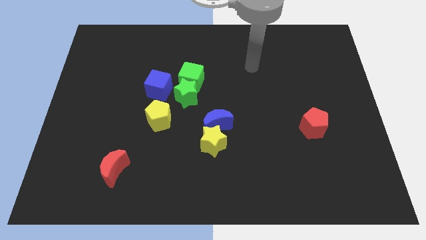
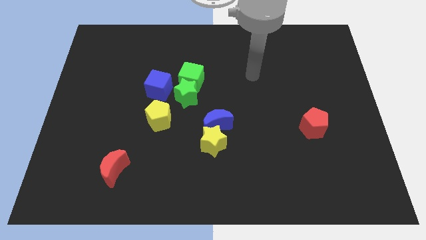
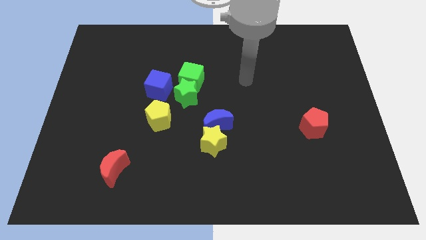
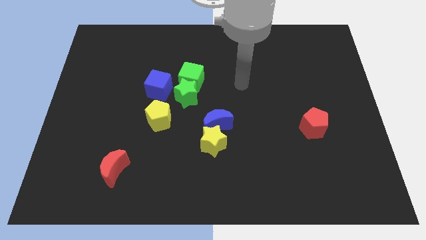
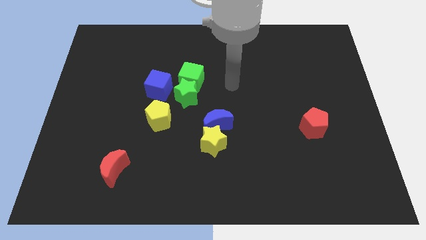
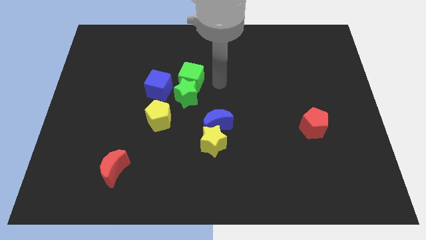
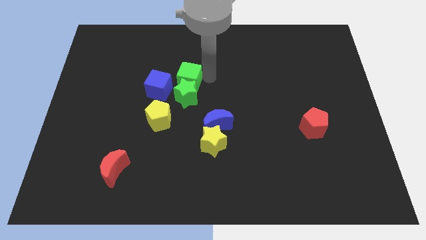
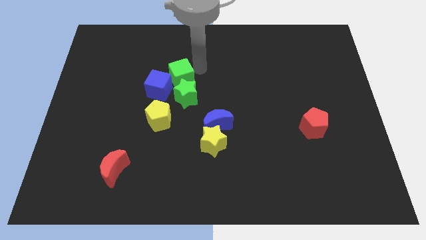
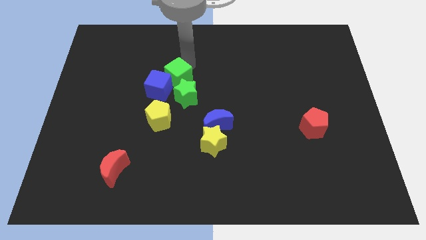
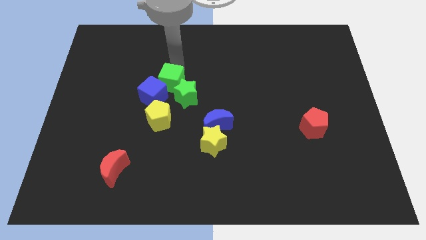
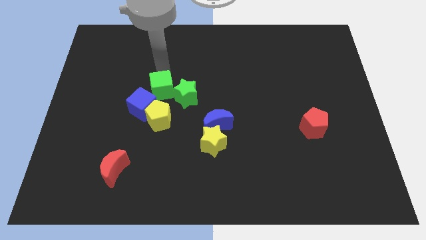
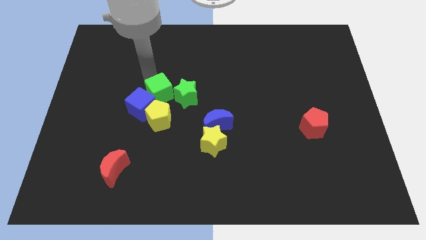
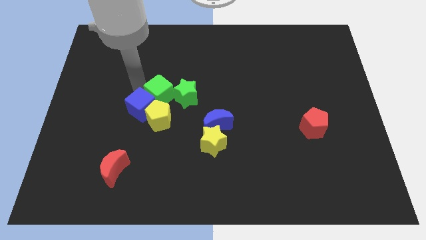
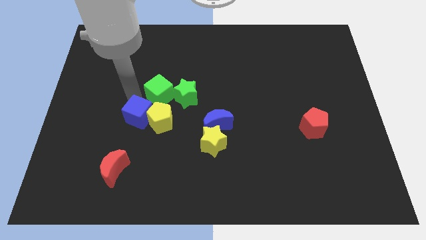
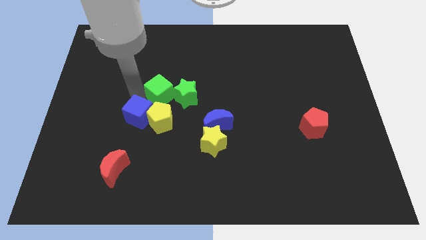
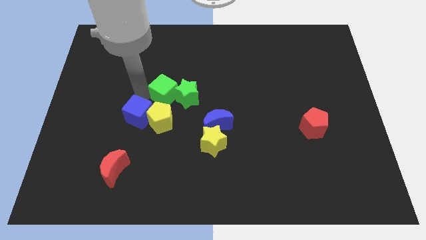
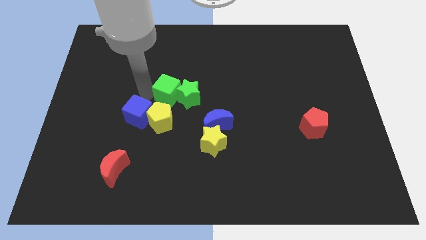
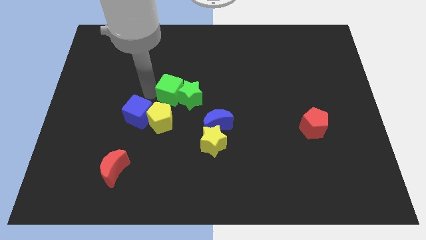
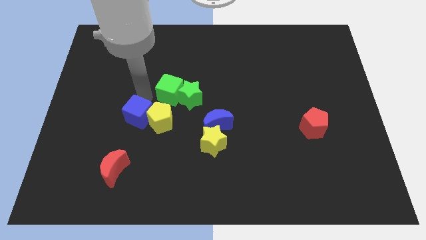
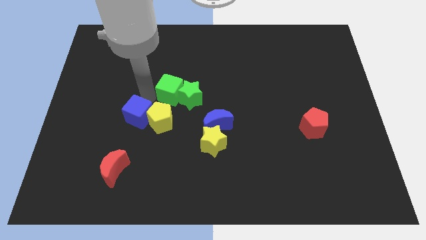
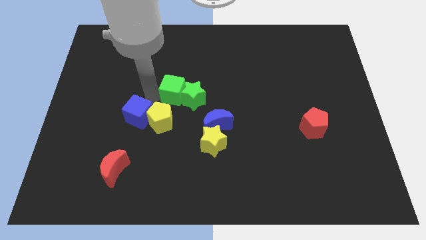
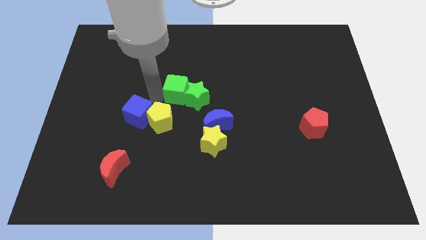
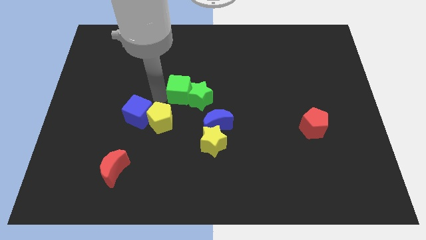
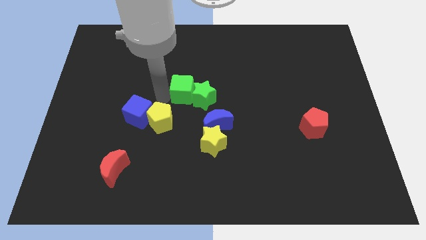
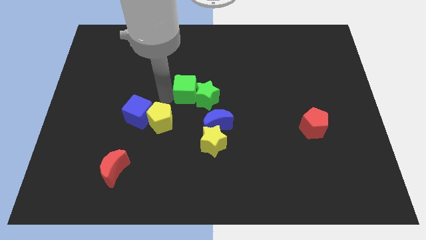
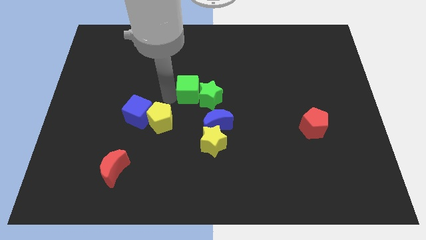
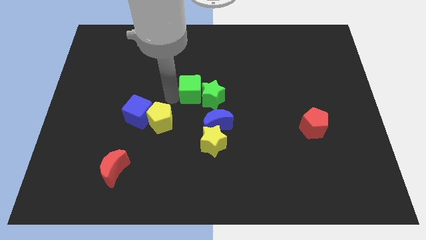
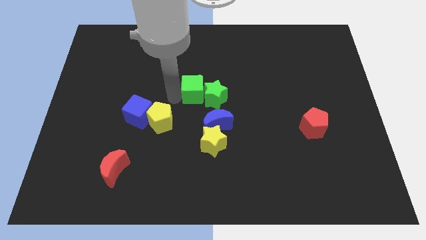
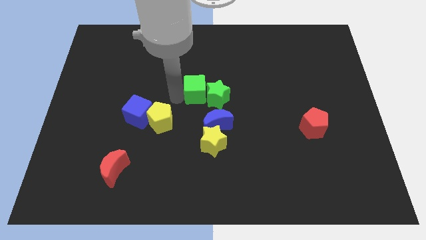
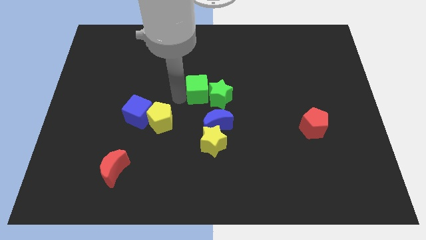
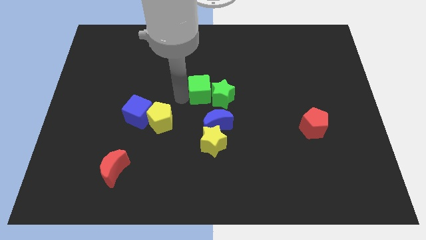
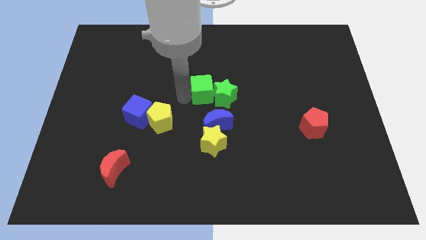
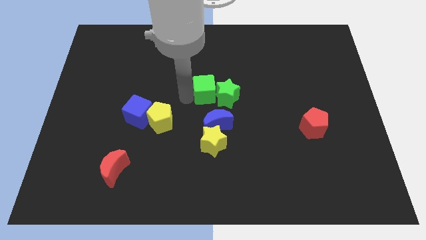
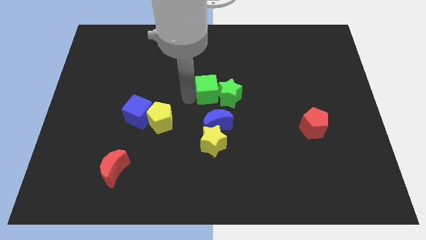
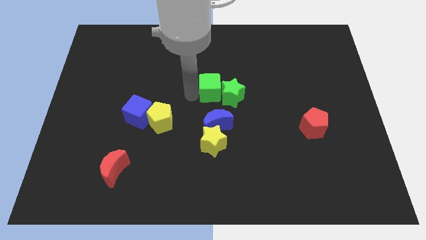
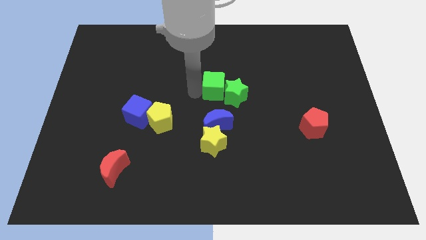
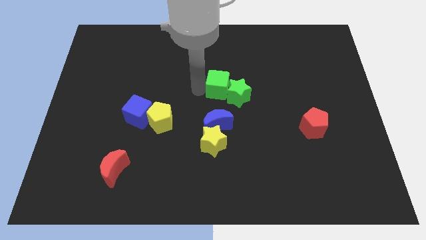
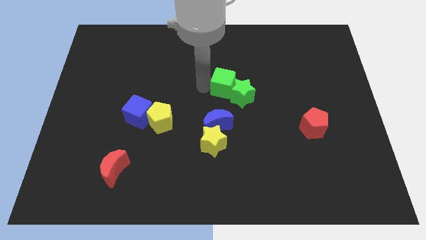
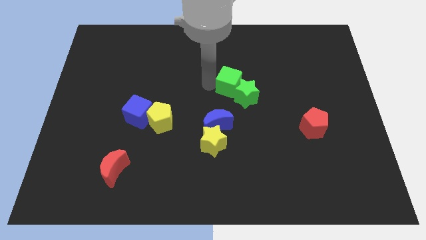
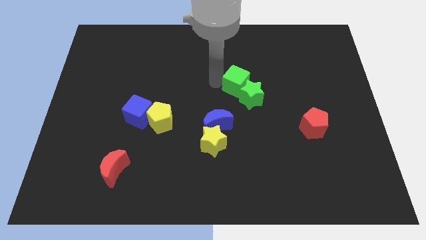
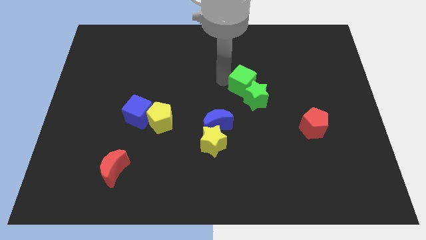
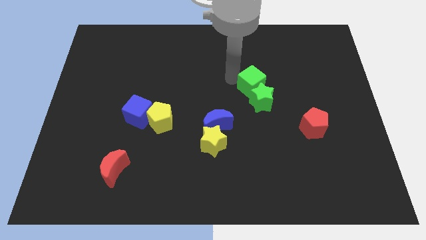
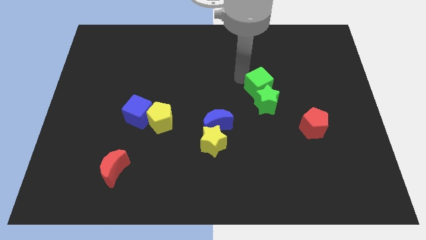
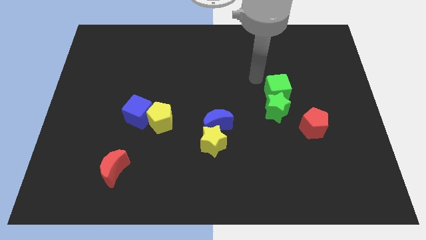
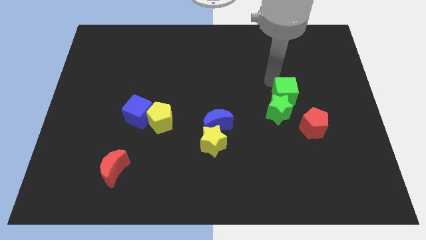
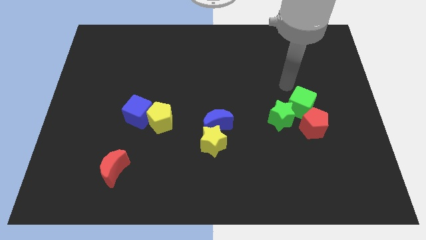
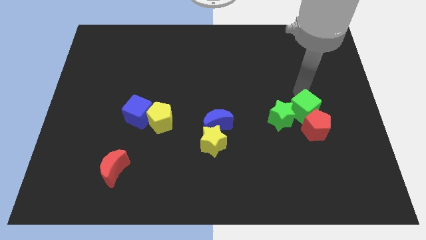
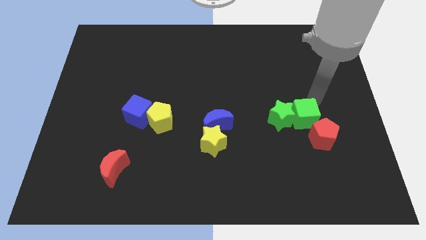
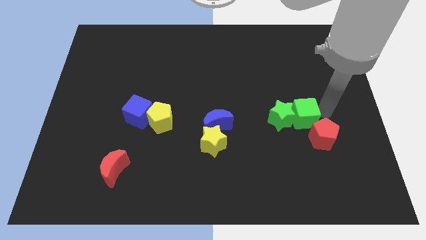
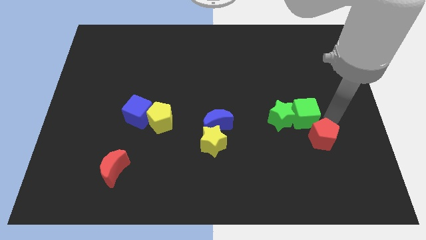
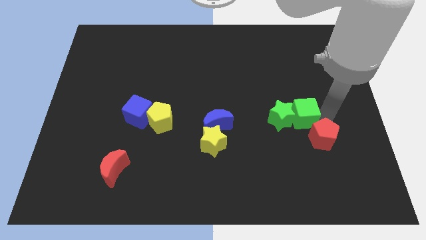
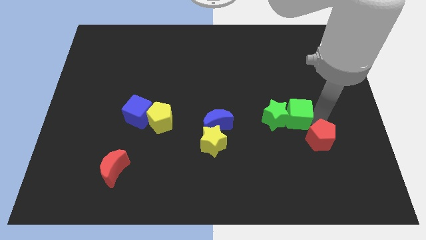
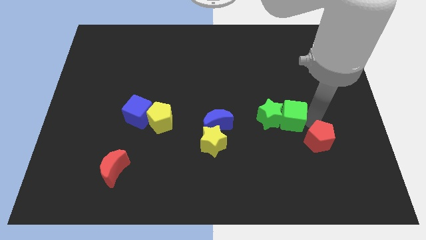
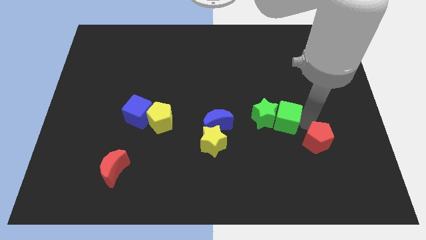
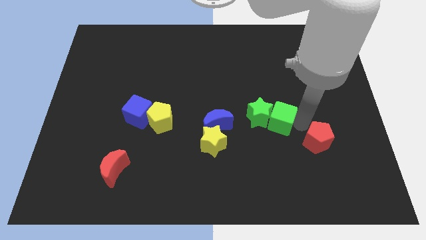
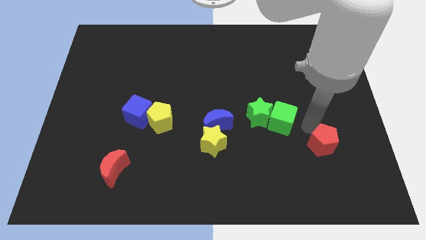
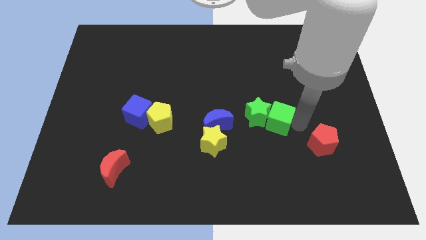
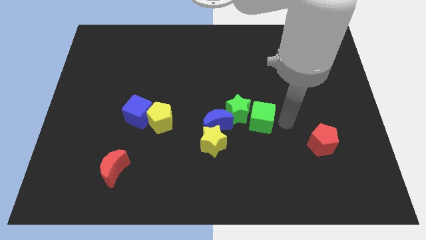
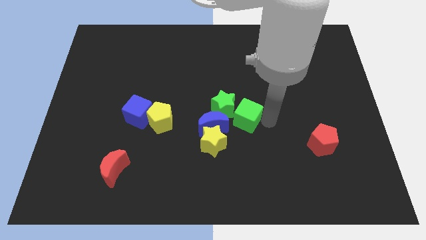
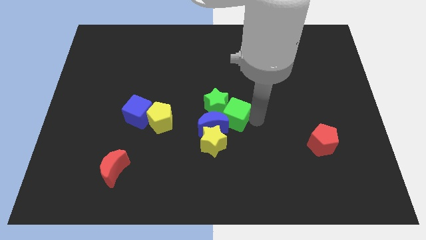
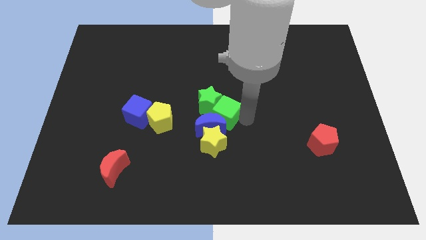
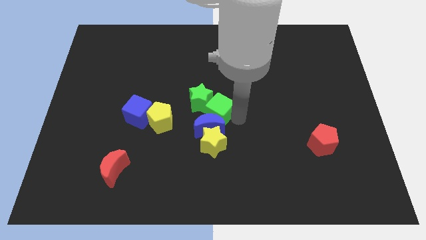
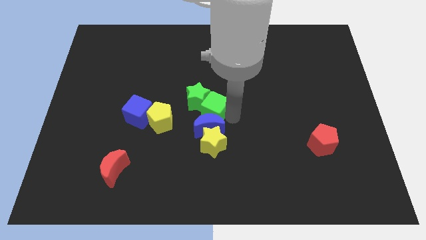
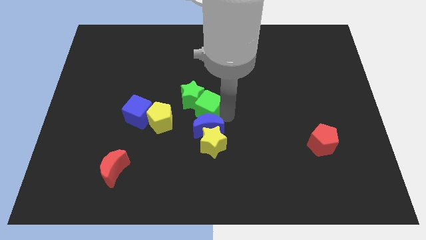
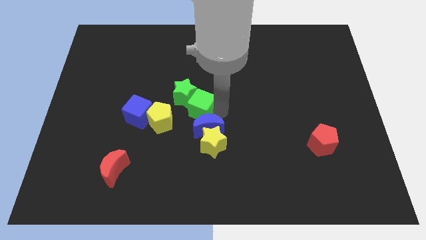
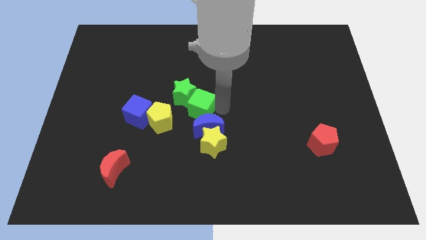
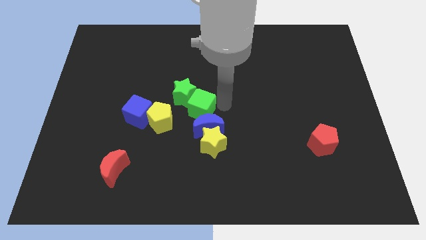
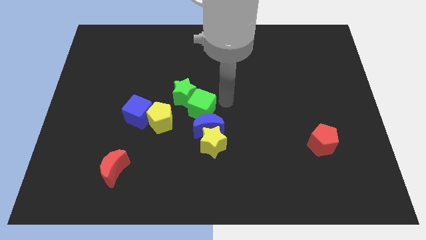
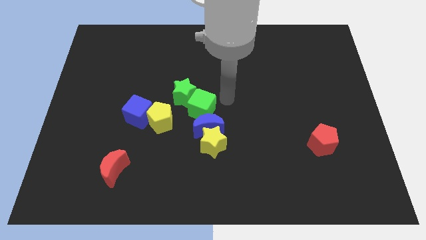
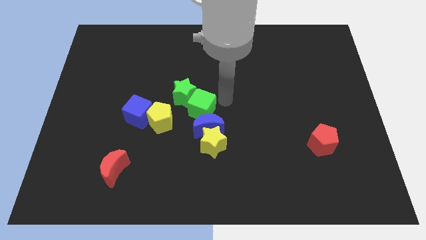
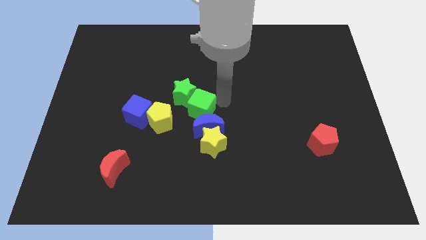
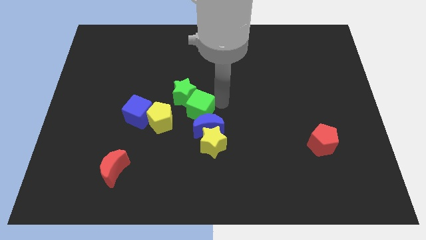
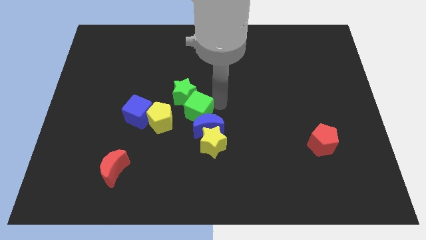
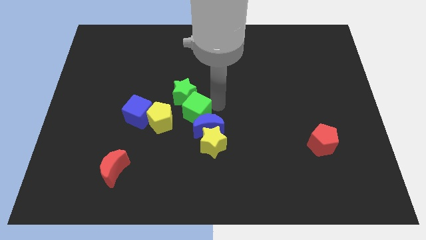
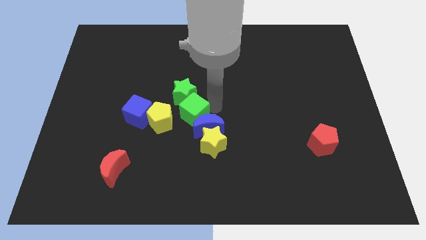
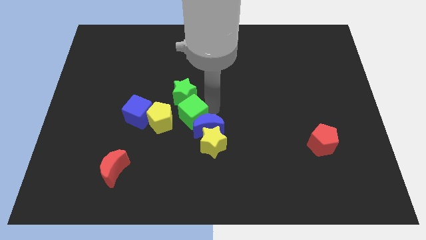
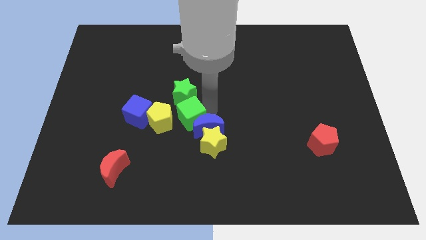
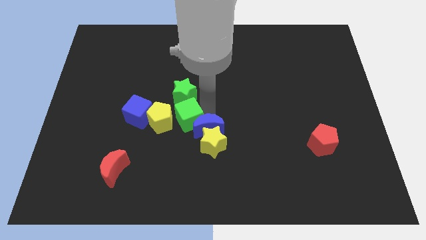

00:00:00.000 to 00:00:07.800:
move the green cube close to the yellow pentagon
